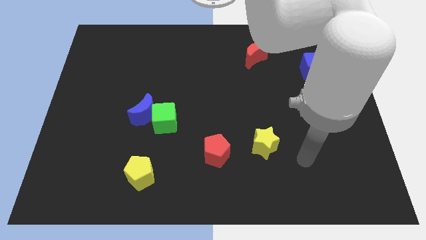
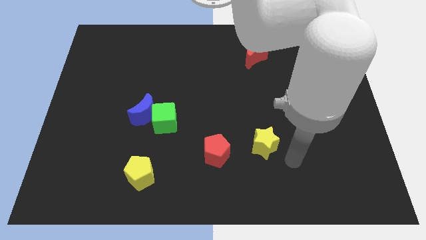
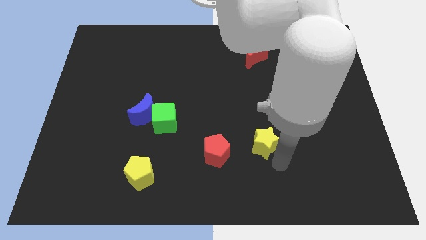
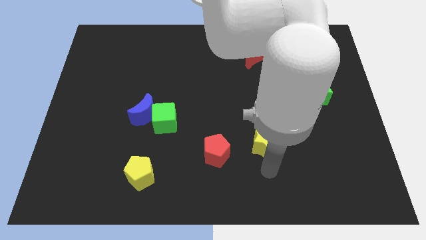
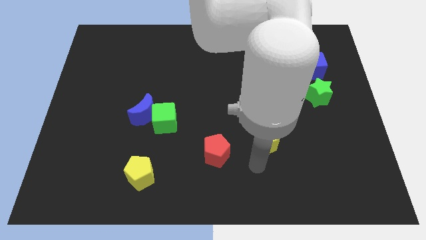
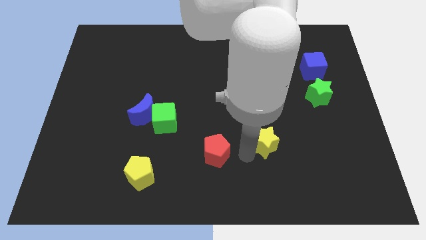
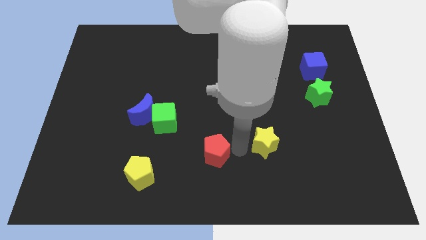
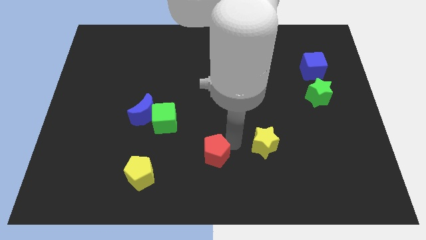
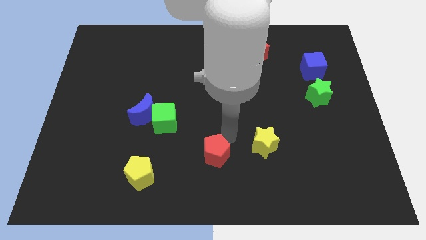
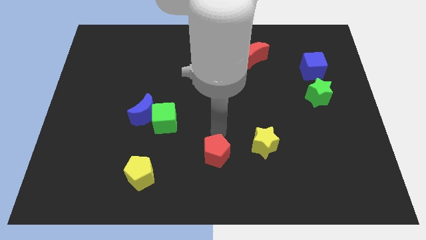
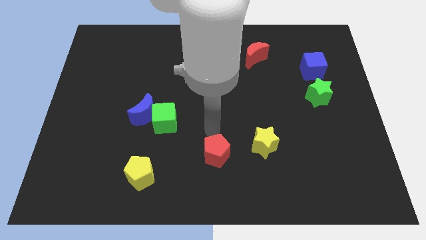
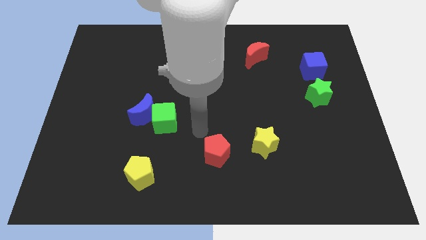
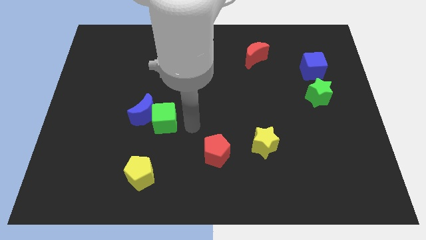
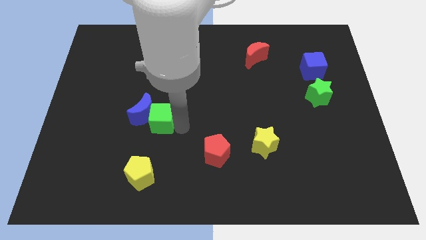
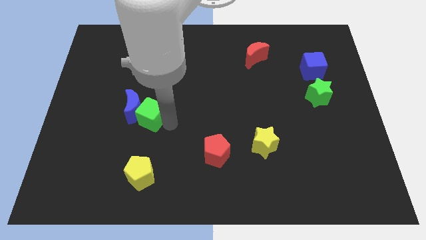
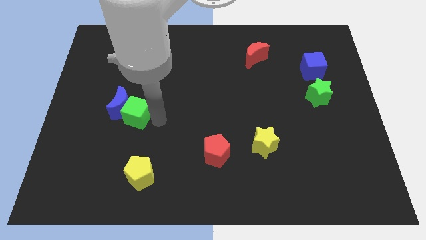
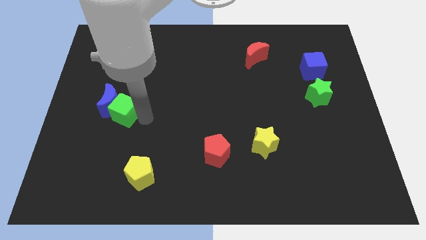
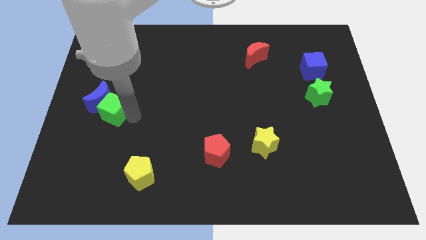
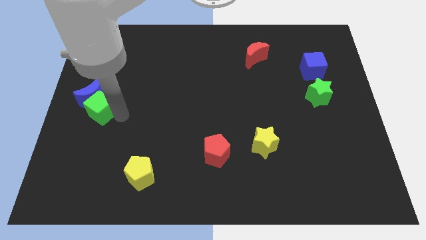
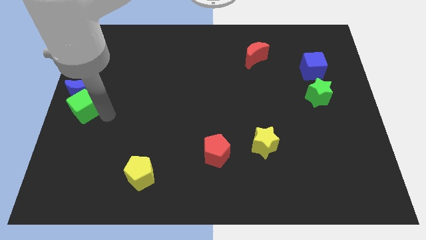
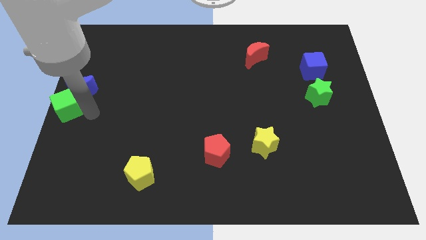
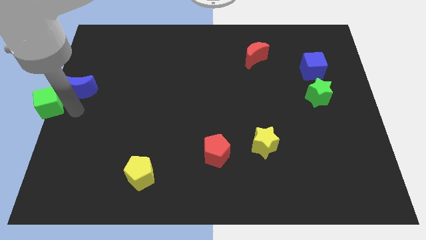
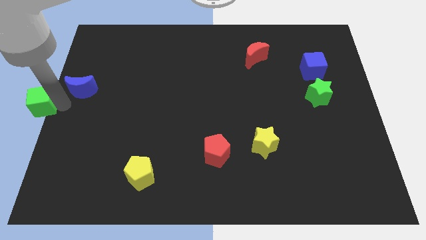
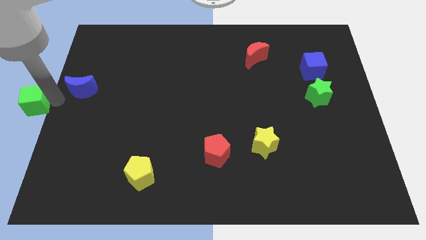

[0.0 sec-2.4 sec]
pull the blue moon apart from the green cube

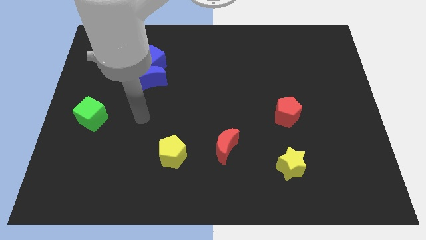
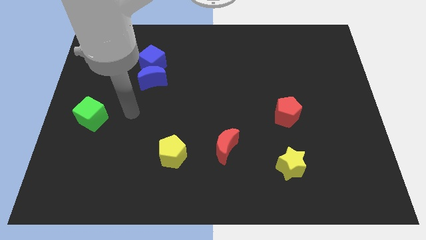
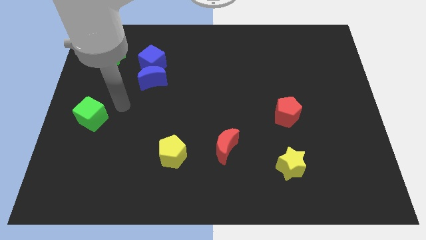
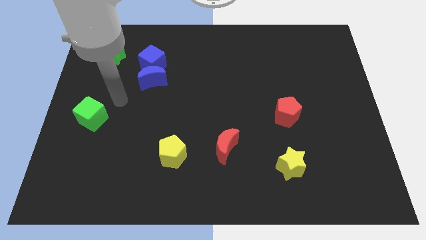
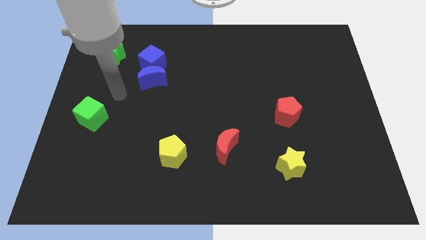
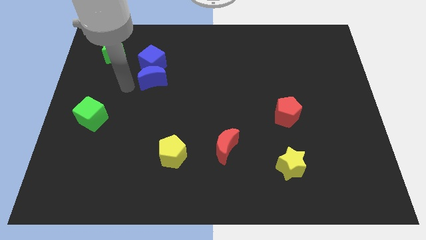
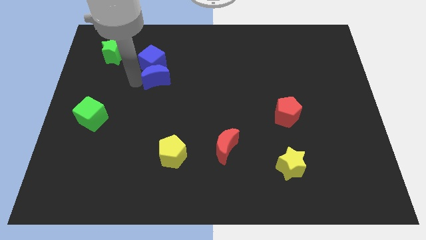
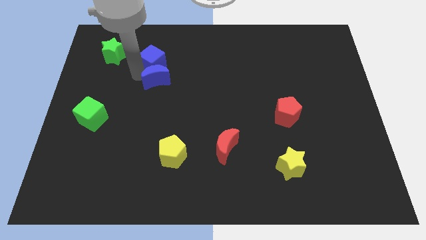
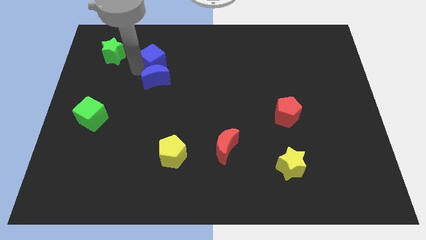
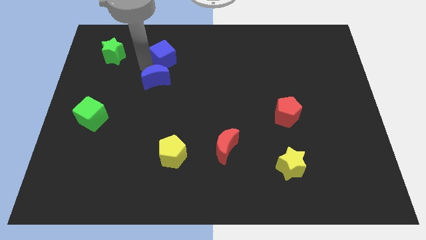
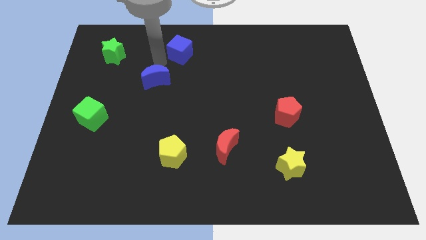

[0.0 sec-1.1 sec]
move the blue moon away from the blue cube

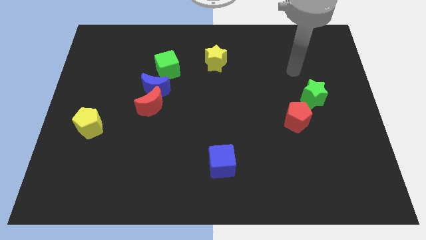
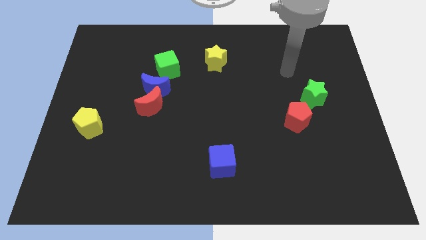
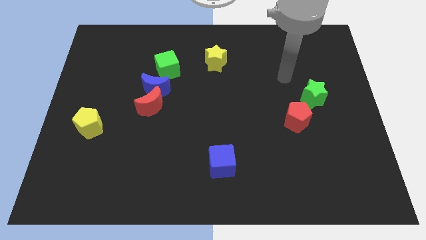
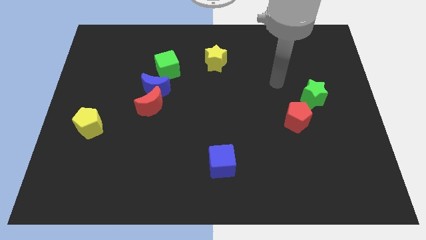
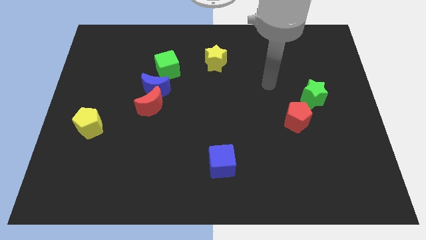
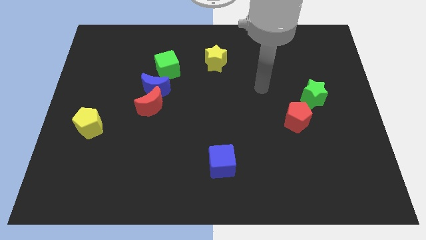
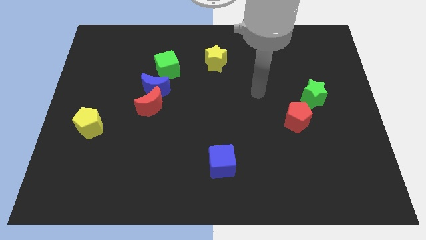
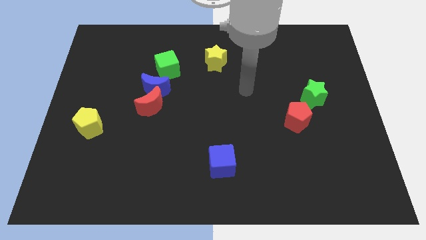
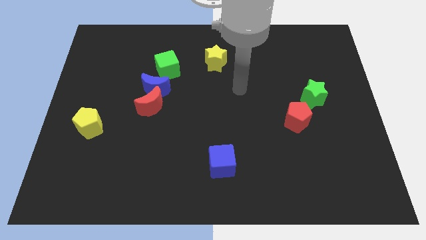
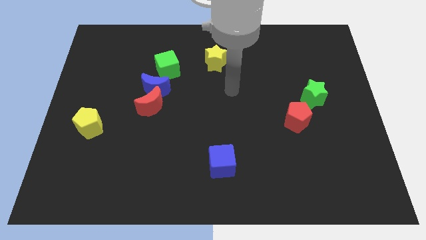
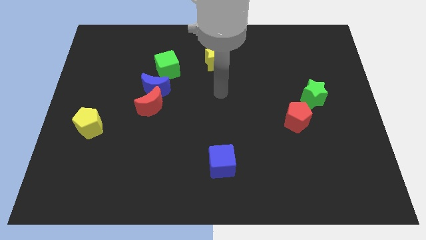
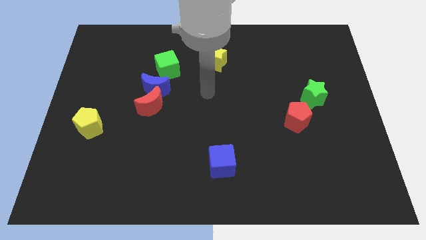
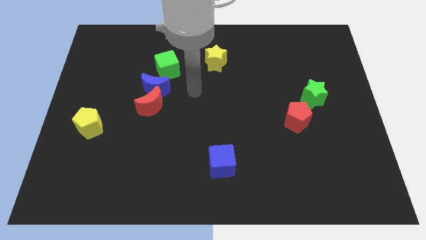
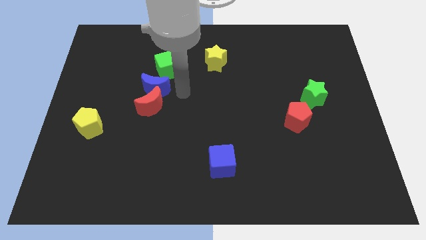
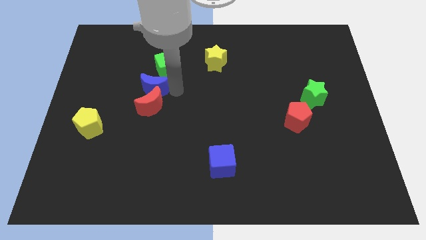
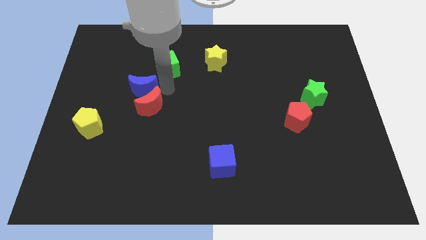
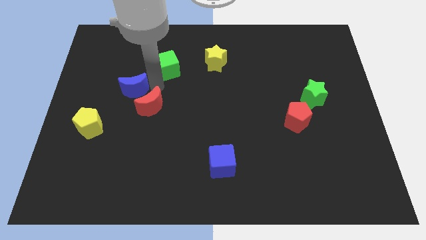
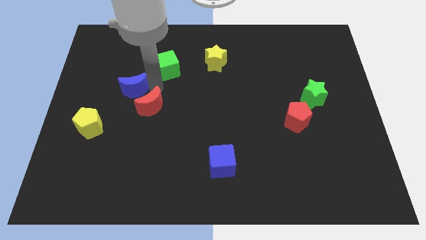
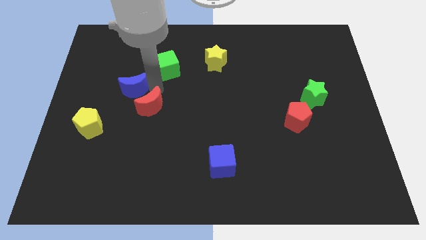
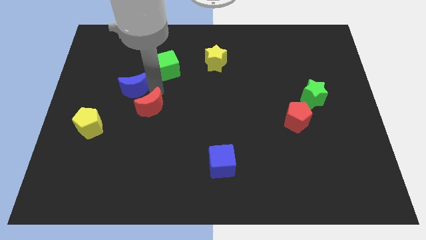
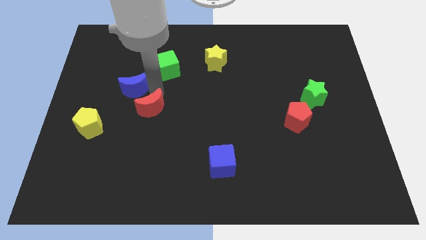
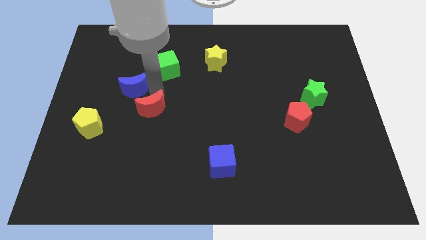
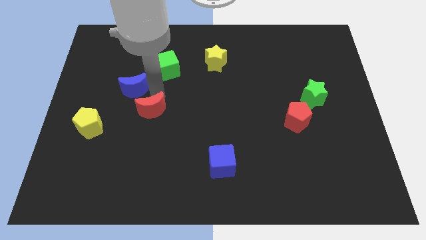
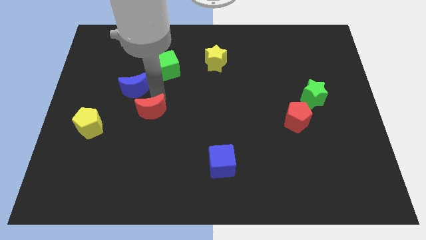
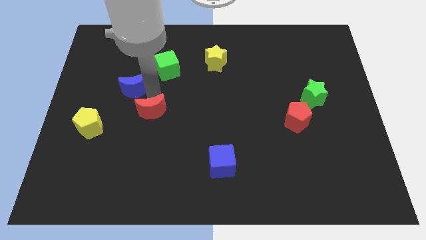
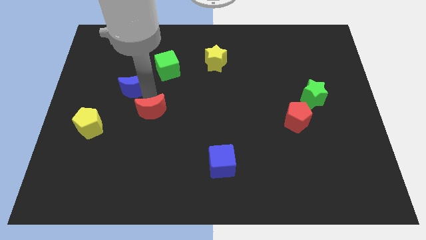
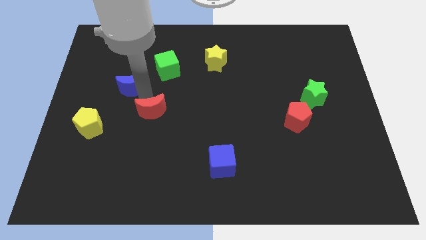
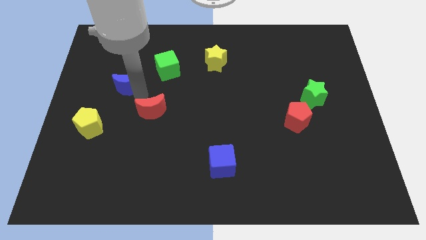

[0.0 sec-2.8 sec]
separate the red moon from the blue moon

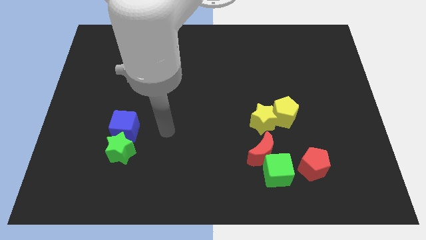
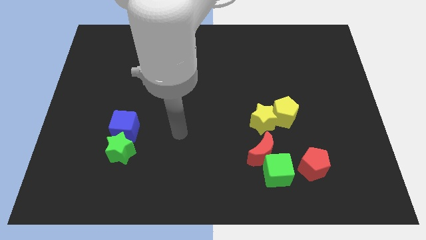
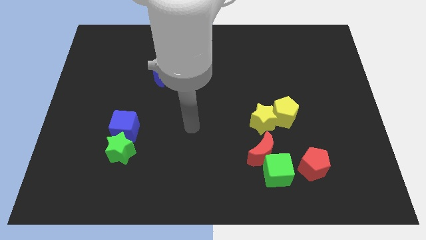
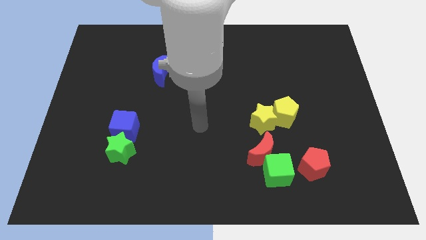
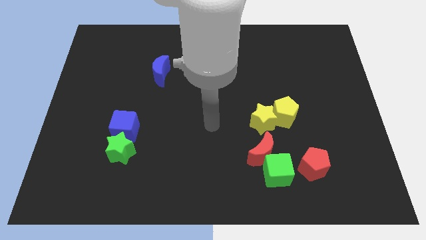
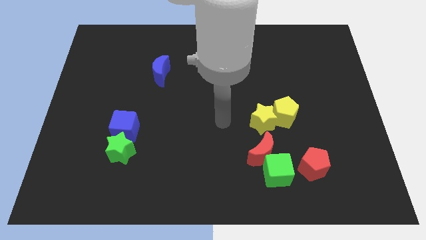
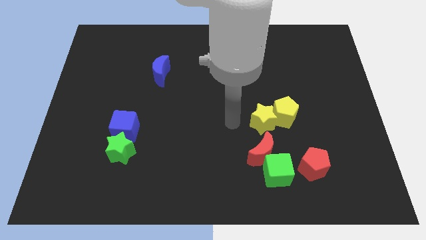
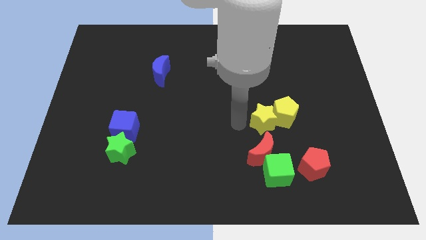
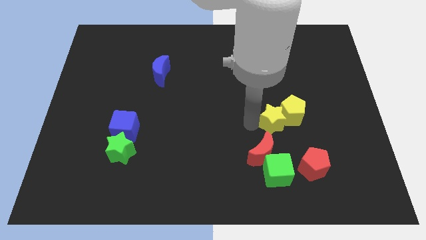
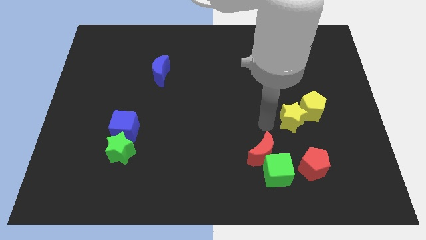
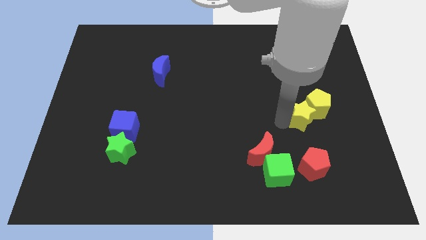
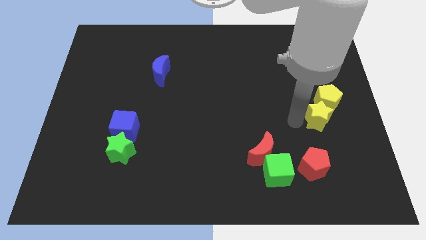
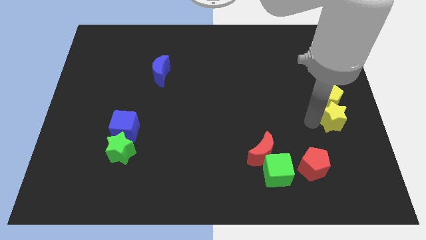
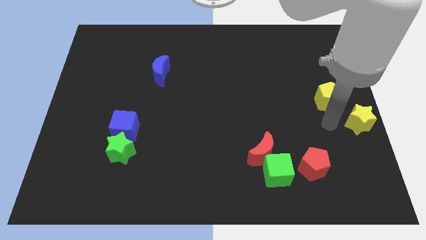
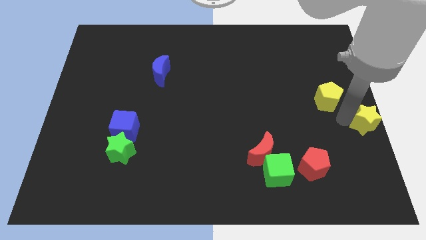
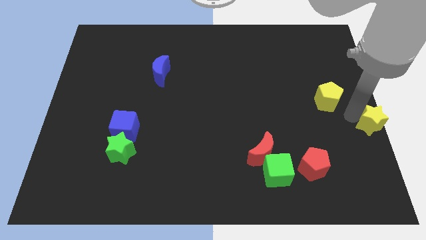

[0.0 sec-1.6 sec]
move the yellow pentagon away from the yellow star

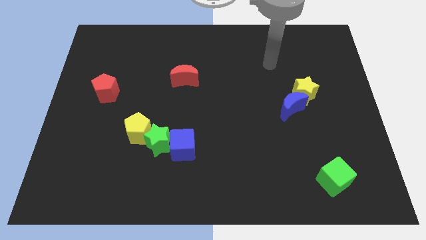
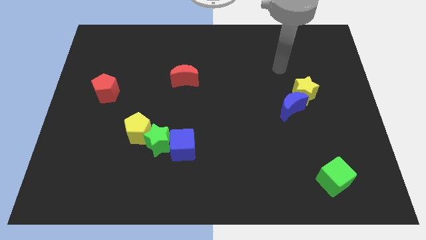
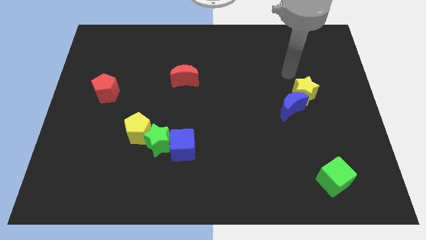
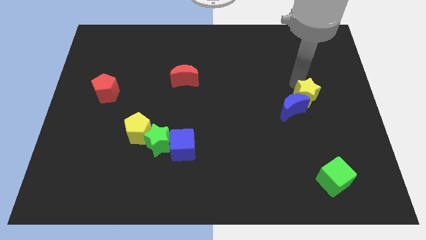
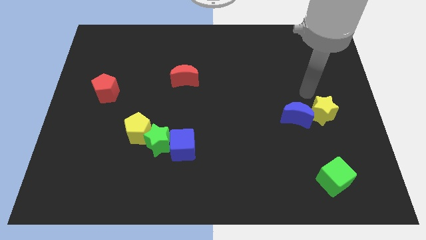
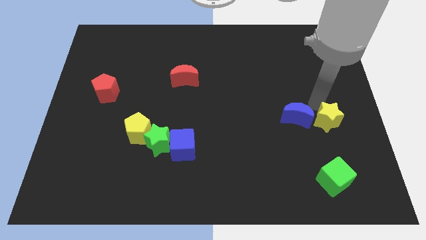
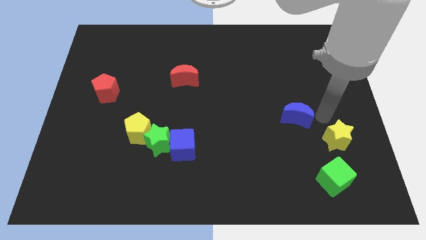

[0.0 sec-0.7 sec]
pull the blue moon apart from the yellow star

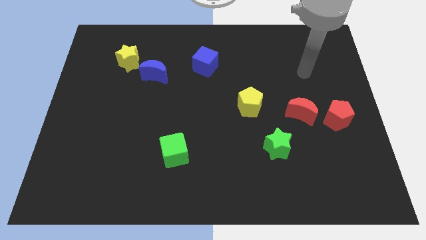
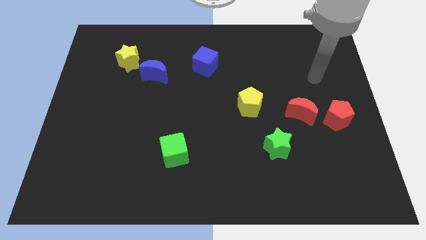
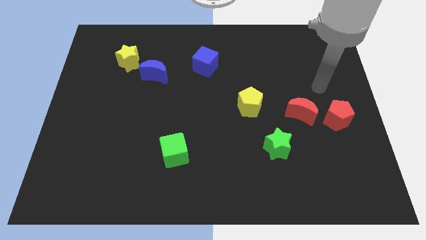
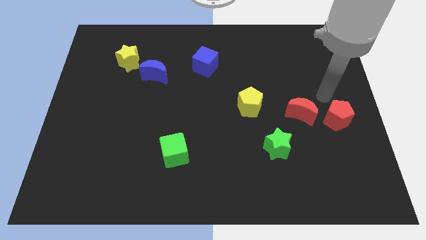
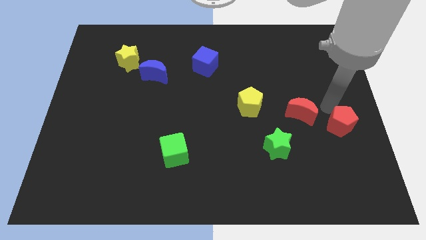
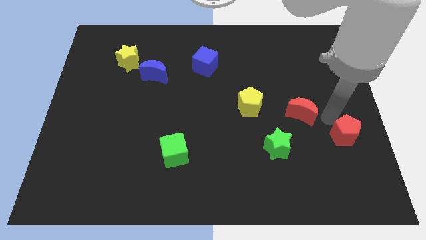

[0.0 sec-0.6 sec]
move the red moon away from the red pentagon
